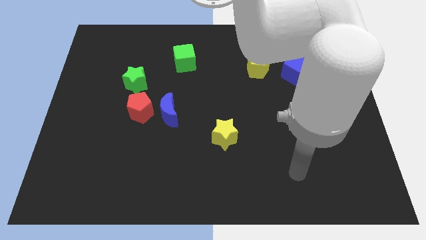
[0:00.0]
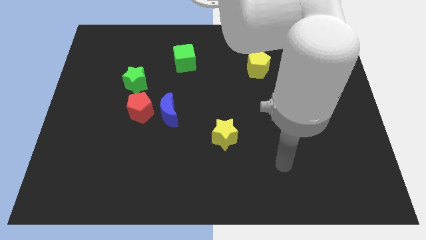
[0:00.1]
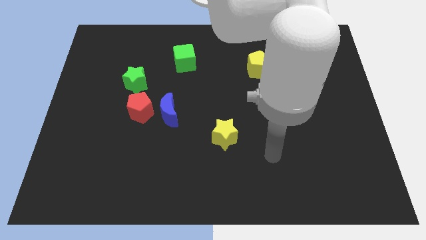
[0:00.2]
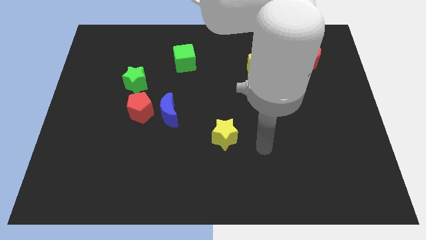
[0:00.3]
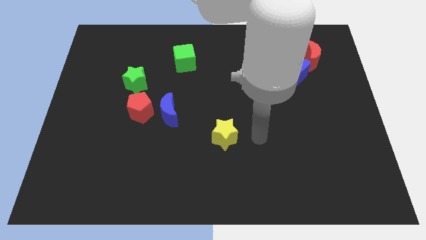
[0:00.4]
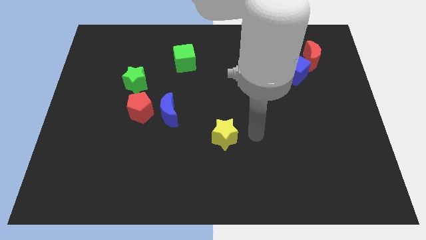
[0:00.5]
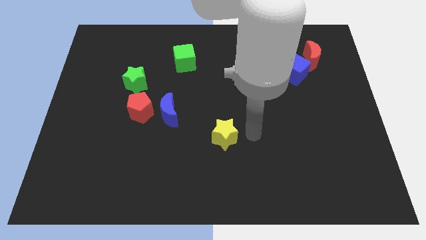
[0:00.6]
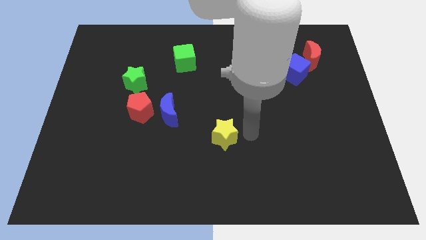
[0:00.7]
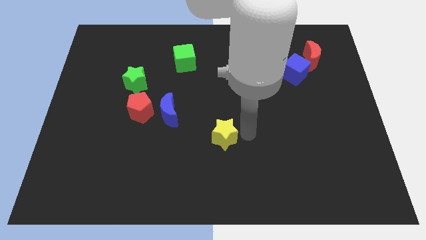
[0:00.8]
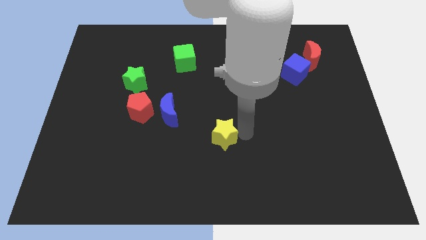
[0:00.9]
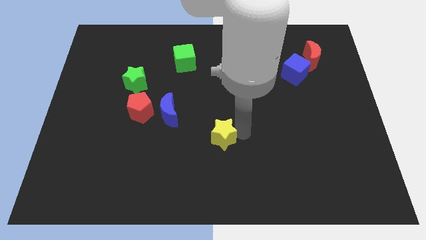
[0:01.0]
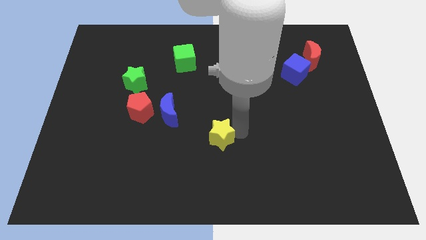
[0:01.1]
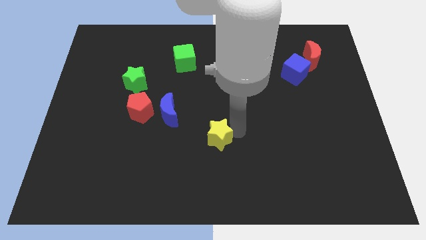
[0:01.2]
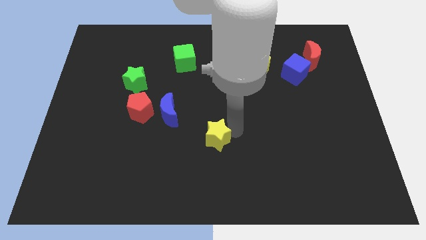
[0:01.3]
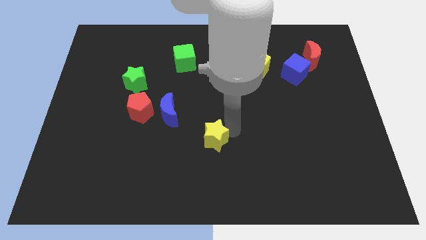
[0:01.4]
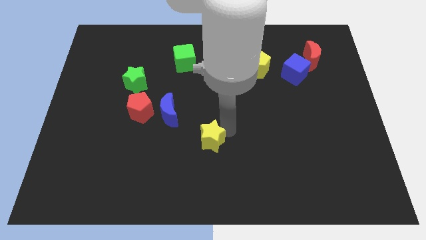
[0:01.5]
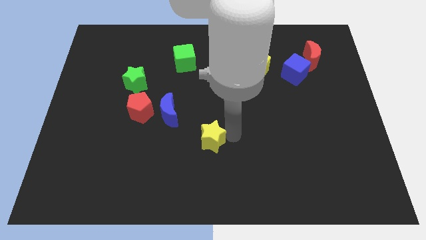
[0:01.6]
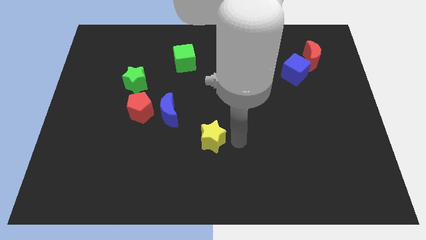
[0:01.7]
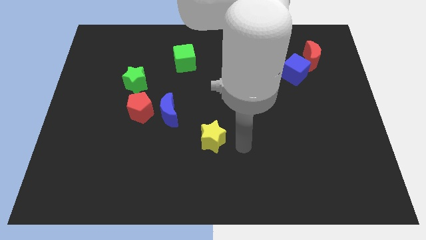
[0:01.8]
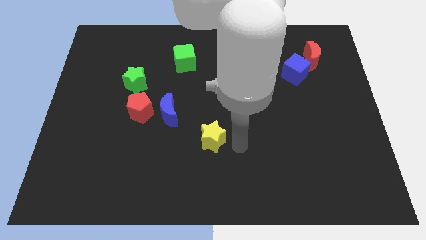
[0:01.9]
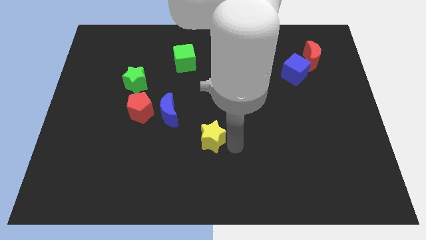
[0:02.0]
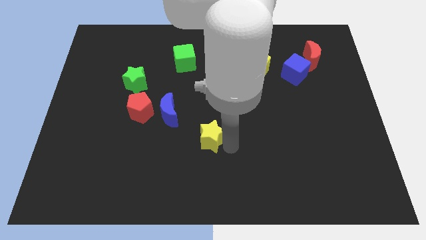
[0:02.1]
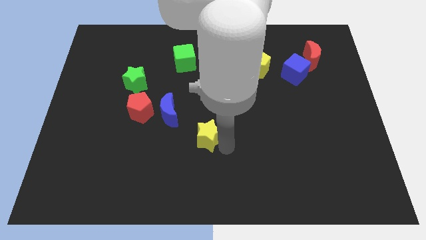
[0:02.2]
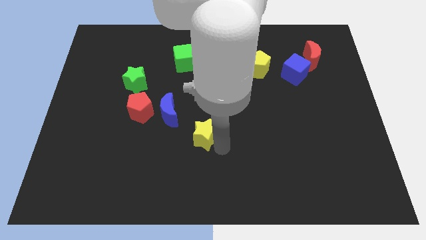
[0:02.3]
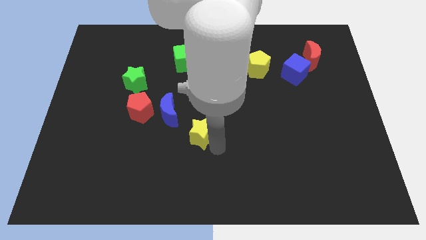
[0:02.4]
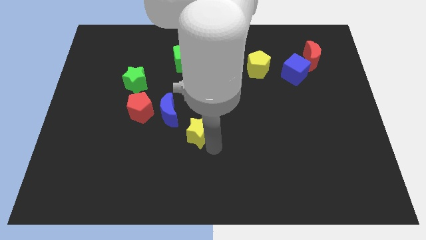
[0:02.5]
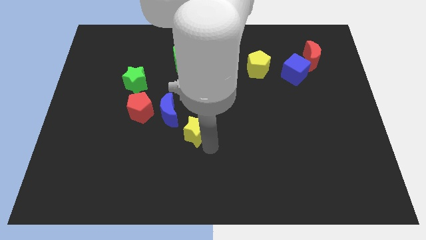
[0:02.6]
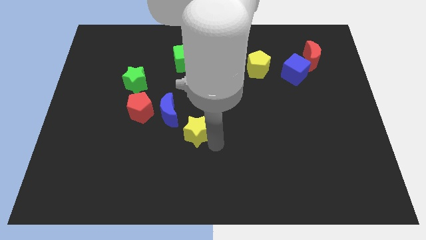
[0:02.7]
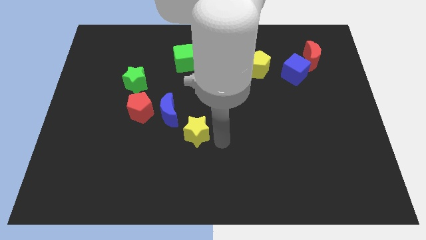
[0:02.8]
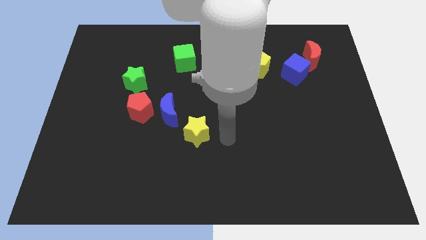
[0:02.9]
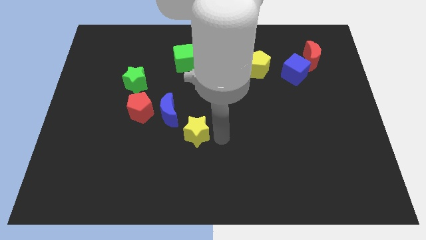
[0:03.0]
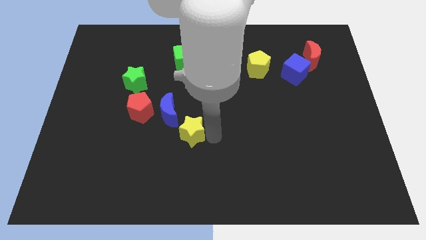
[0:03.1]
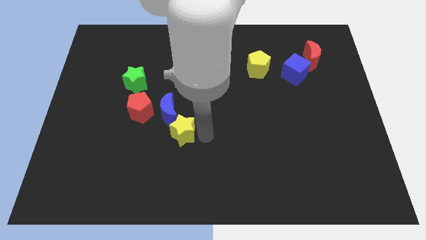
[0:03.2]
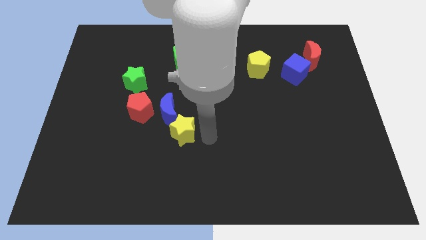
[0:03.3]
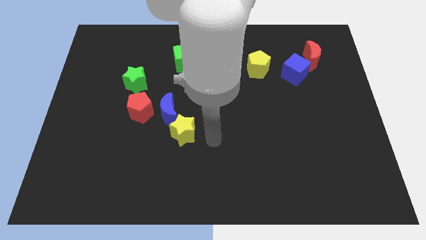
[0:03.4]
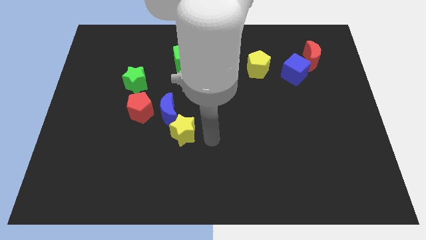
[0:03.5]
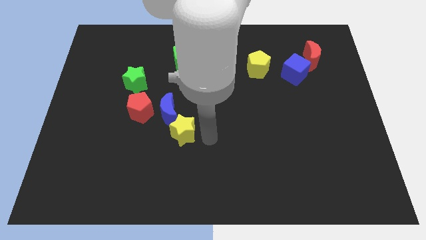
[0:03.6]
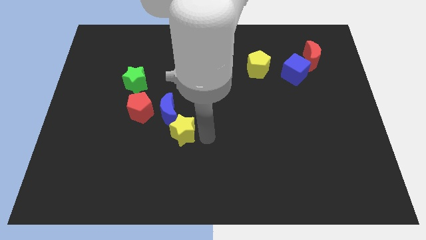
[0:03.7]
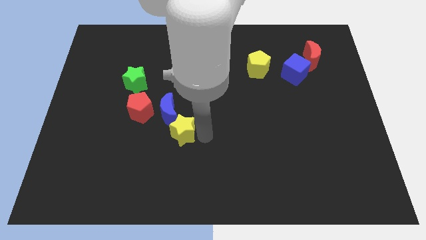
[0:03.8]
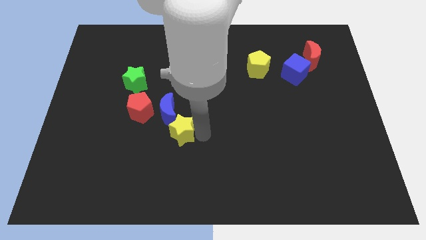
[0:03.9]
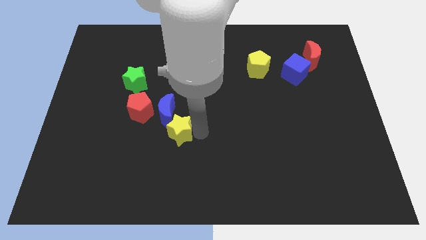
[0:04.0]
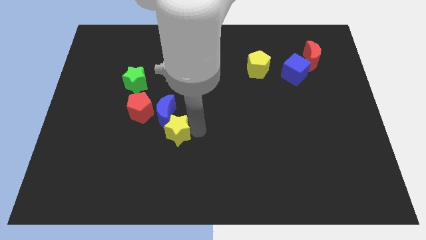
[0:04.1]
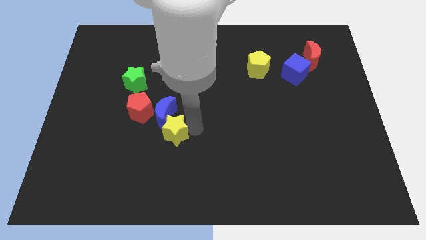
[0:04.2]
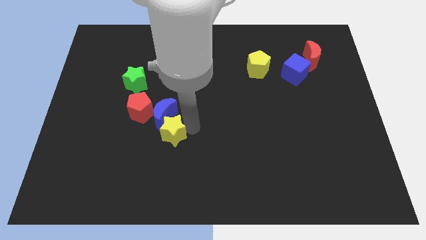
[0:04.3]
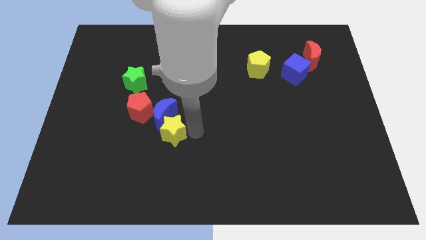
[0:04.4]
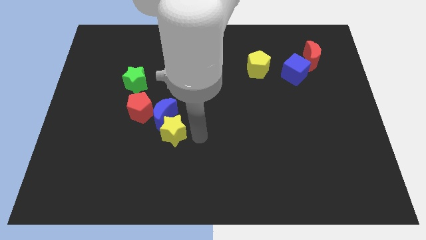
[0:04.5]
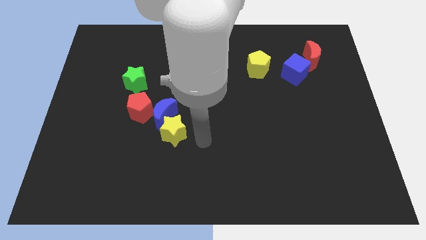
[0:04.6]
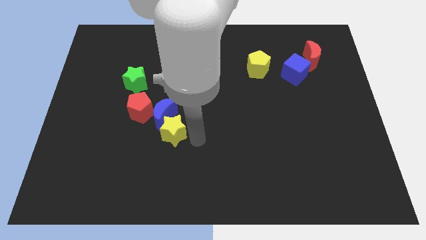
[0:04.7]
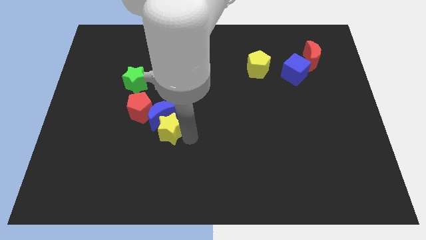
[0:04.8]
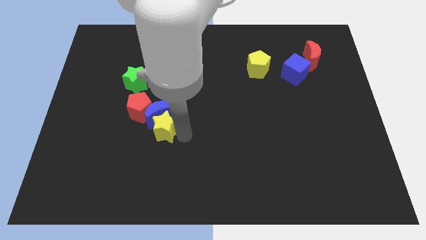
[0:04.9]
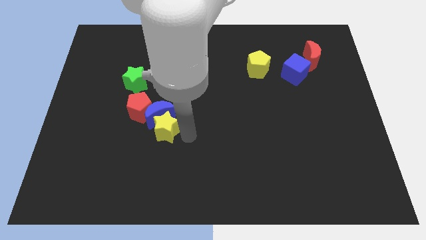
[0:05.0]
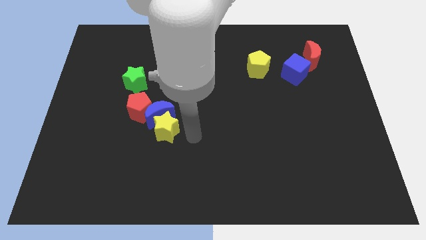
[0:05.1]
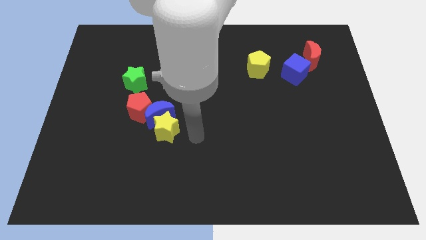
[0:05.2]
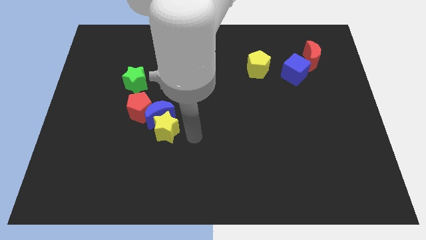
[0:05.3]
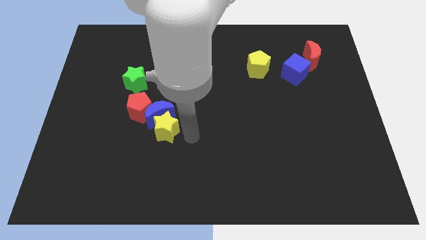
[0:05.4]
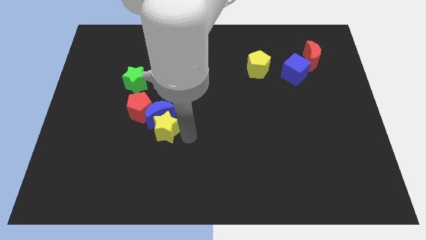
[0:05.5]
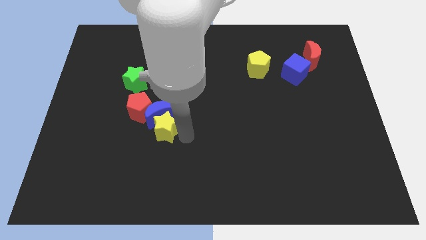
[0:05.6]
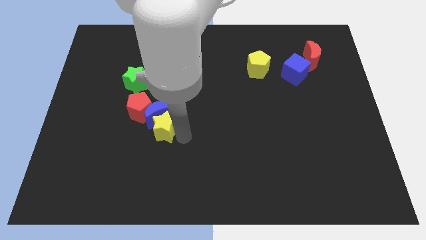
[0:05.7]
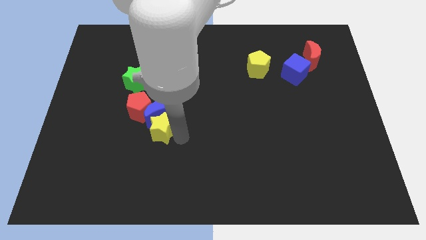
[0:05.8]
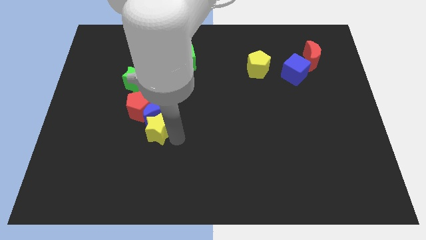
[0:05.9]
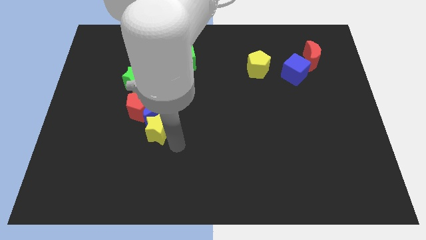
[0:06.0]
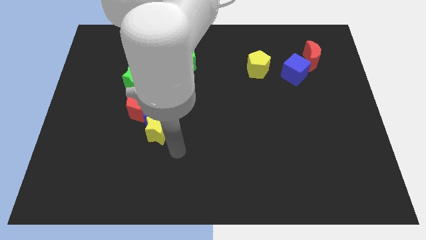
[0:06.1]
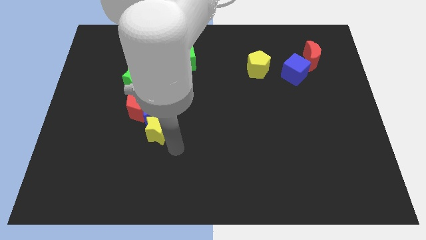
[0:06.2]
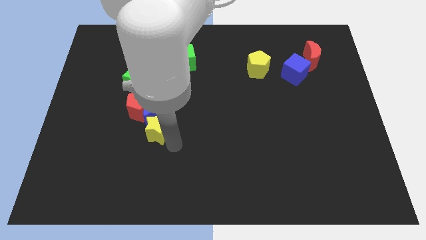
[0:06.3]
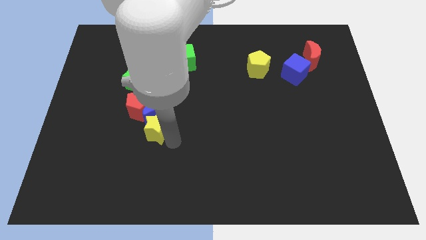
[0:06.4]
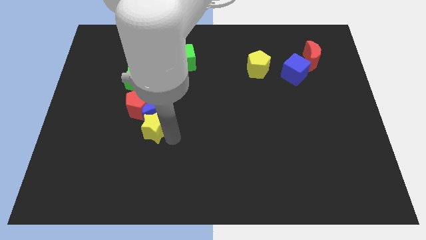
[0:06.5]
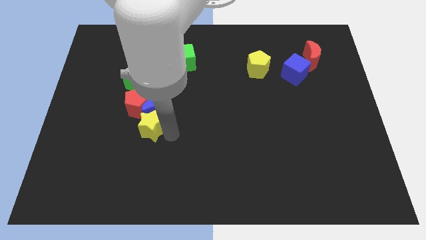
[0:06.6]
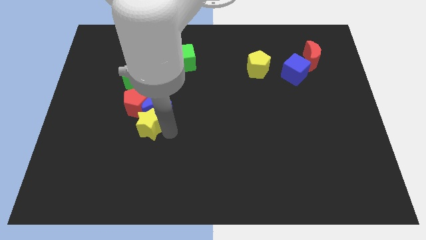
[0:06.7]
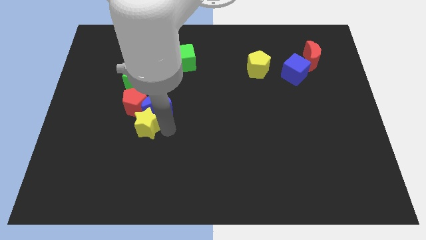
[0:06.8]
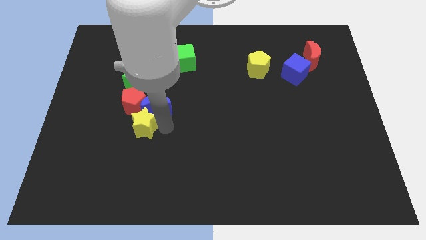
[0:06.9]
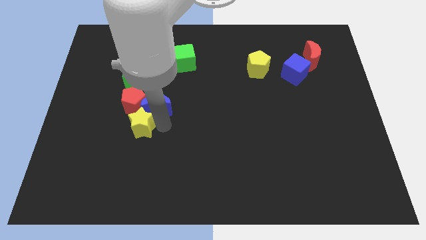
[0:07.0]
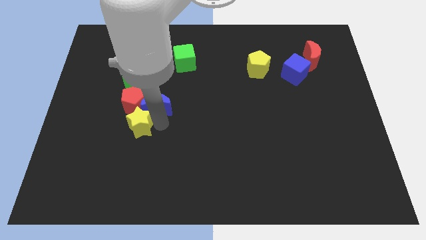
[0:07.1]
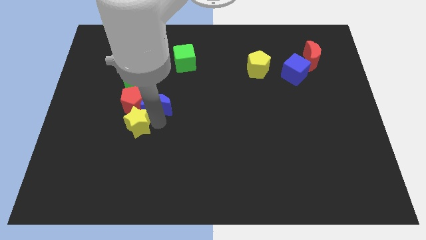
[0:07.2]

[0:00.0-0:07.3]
slide the yellow star close to the red pentagon
